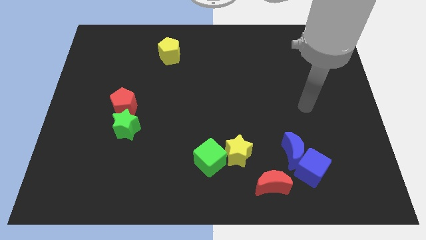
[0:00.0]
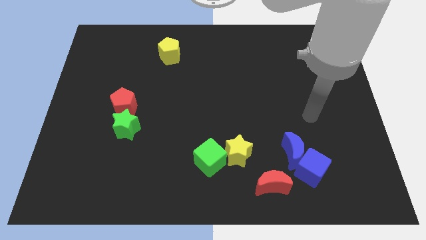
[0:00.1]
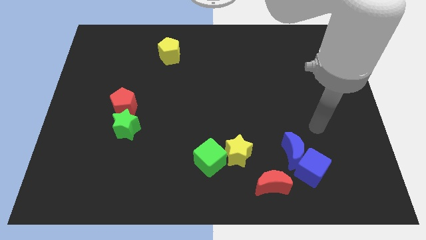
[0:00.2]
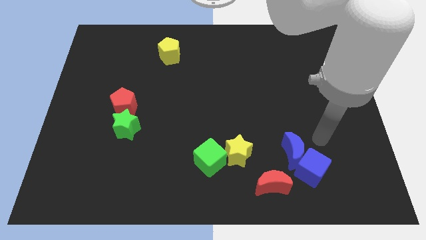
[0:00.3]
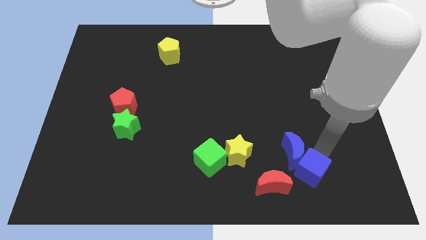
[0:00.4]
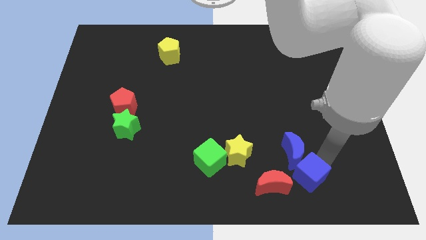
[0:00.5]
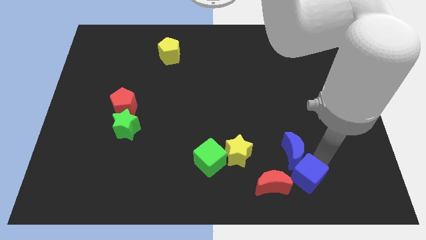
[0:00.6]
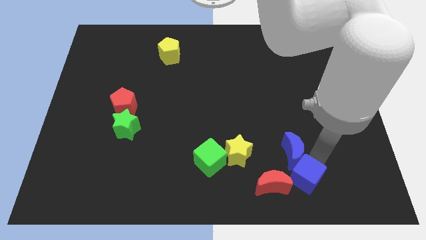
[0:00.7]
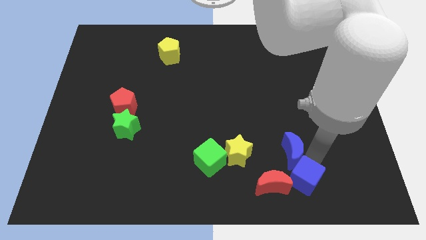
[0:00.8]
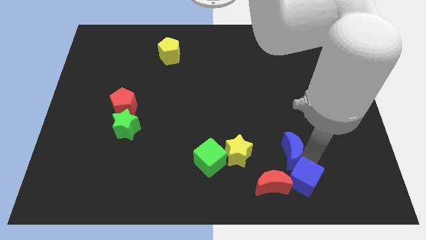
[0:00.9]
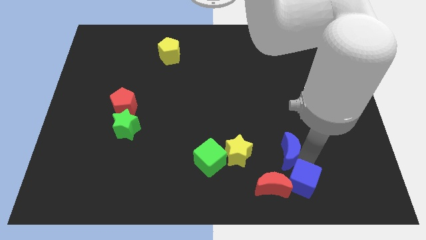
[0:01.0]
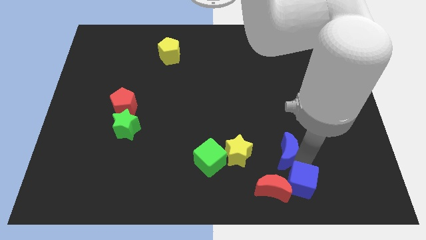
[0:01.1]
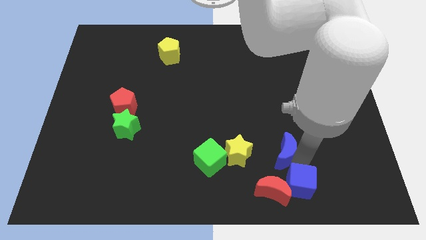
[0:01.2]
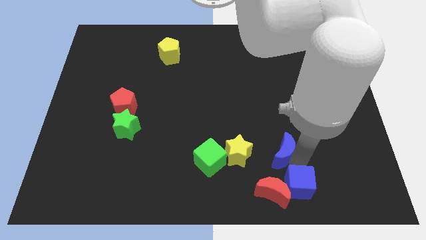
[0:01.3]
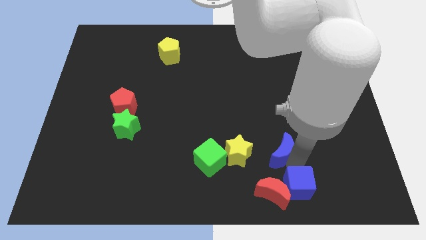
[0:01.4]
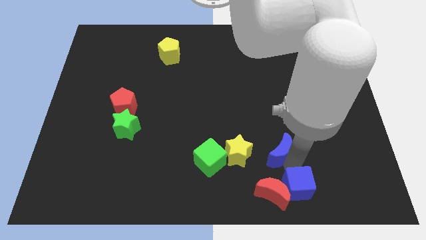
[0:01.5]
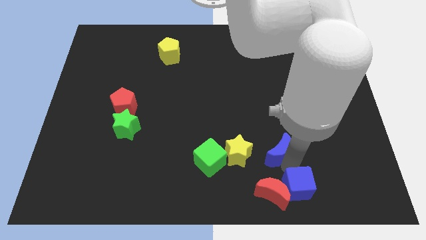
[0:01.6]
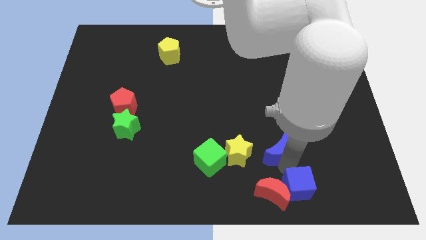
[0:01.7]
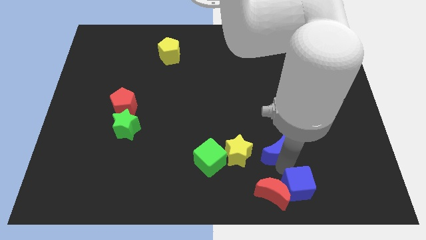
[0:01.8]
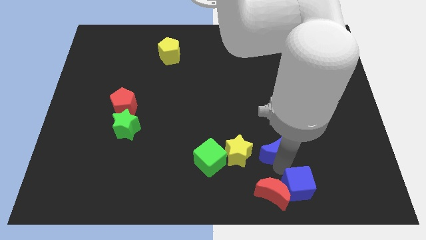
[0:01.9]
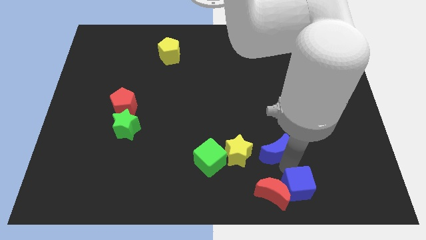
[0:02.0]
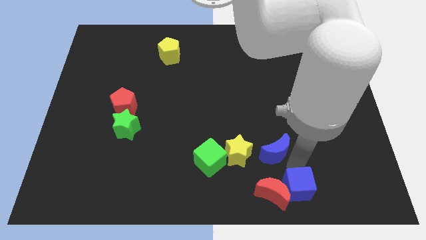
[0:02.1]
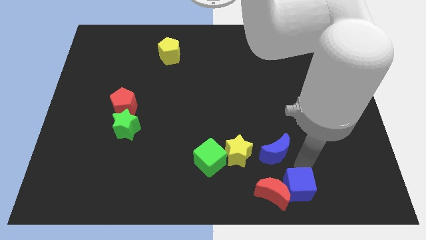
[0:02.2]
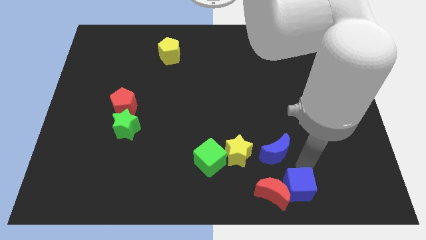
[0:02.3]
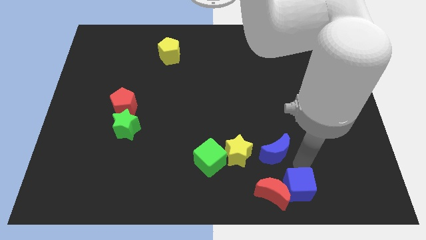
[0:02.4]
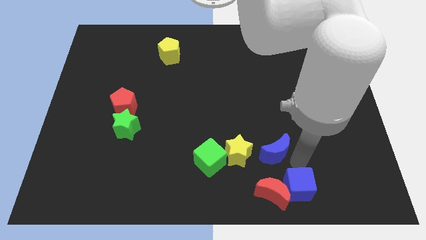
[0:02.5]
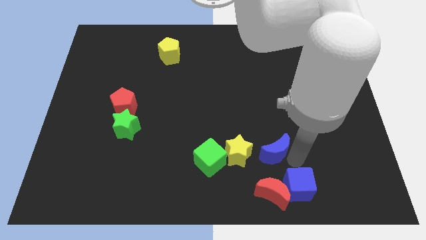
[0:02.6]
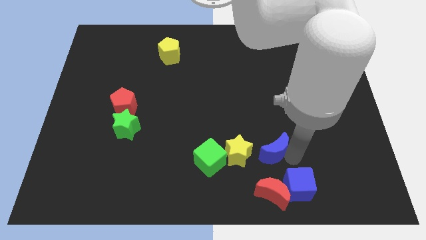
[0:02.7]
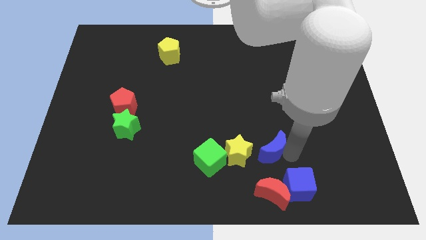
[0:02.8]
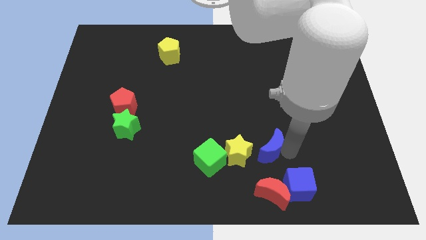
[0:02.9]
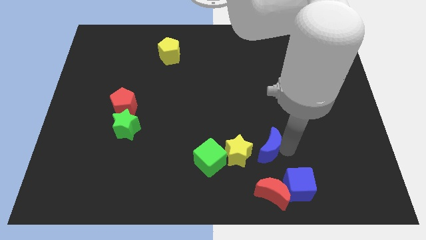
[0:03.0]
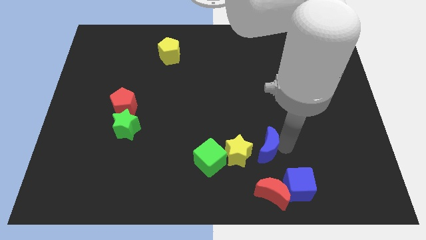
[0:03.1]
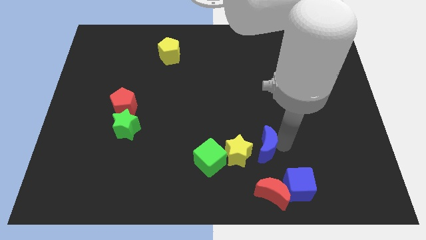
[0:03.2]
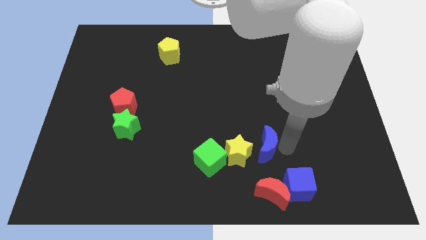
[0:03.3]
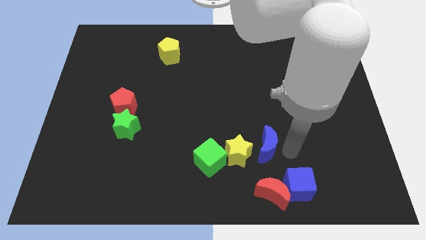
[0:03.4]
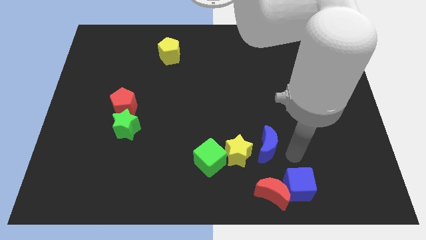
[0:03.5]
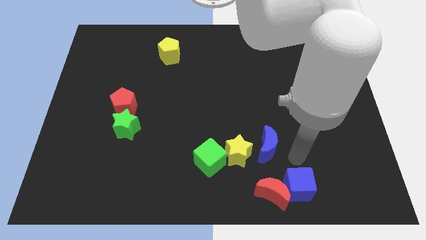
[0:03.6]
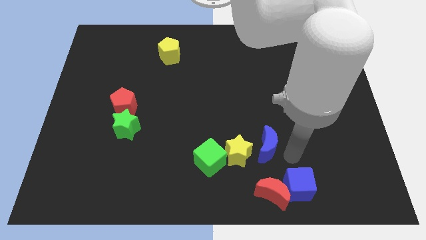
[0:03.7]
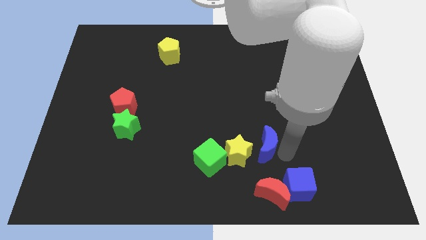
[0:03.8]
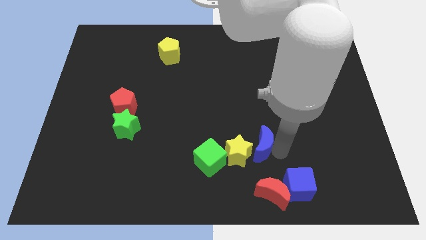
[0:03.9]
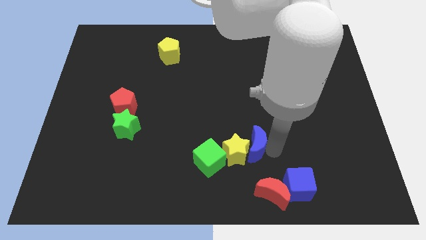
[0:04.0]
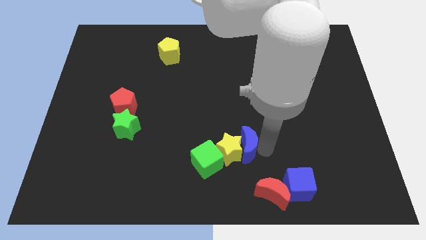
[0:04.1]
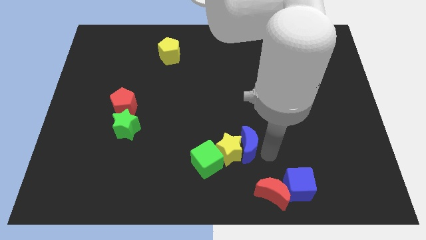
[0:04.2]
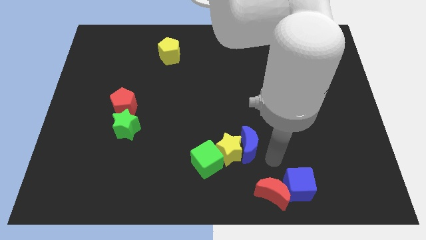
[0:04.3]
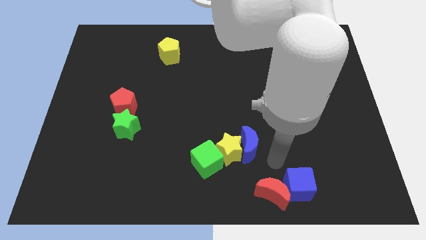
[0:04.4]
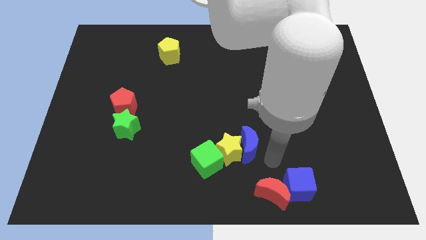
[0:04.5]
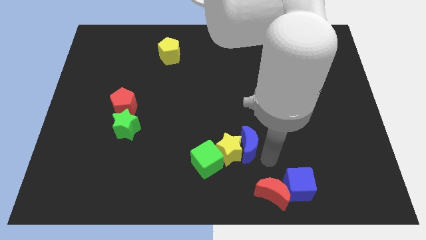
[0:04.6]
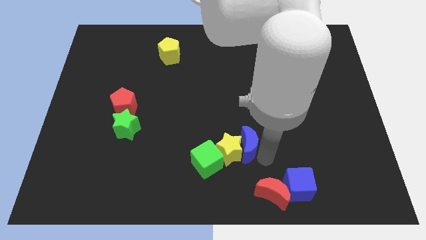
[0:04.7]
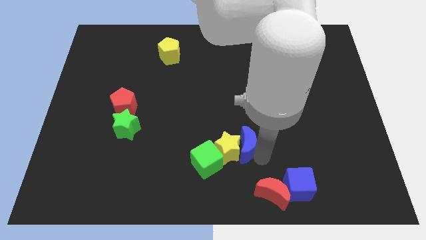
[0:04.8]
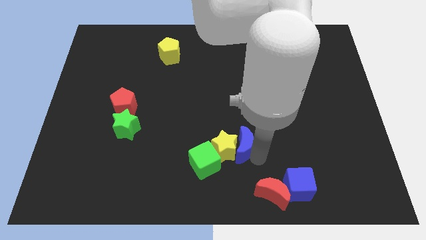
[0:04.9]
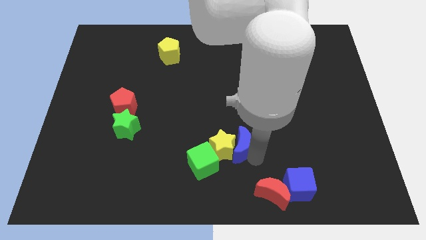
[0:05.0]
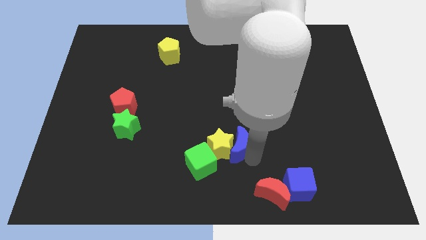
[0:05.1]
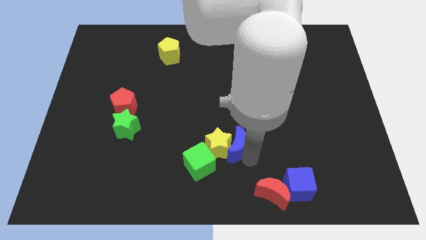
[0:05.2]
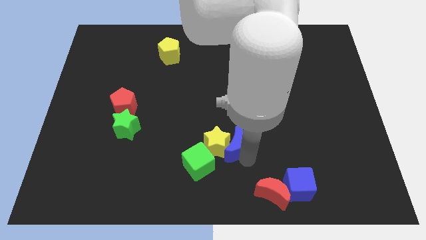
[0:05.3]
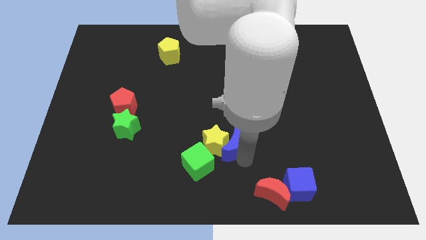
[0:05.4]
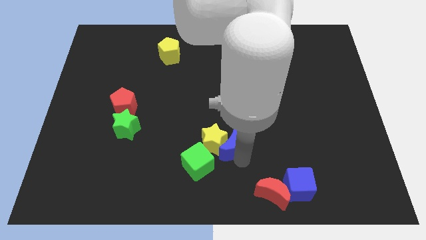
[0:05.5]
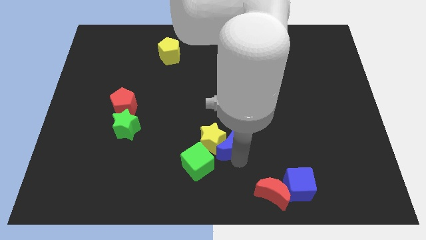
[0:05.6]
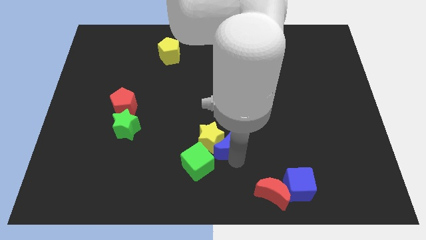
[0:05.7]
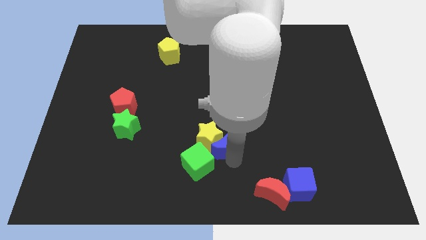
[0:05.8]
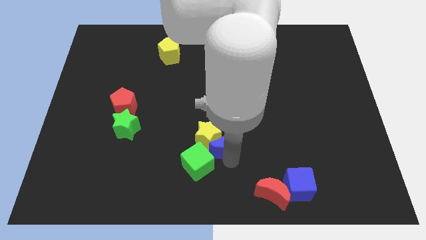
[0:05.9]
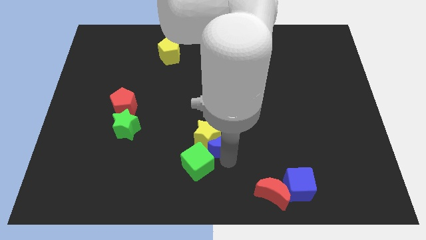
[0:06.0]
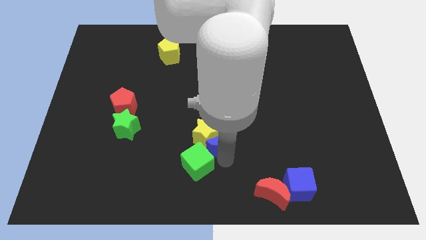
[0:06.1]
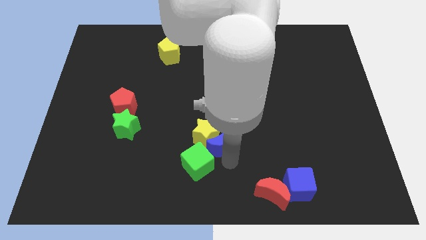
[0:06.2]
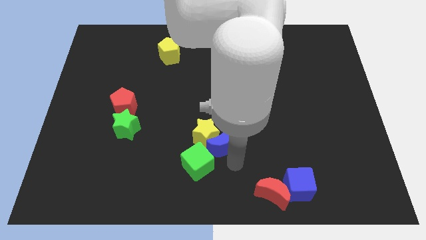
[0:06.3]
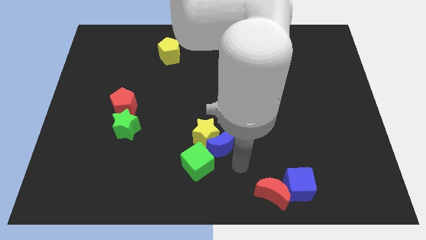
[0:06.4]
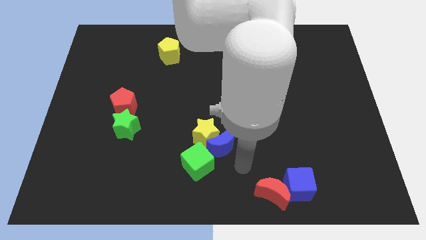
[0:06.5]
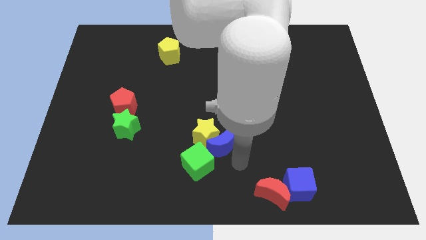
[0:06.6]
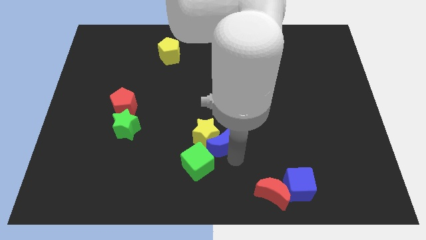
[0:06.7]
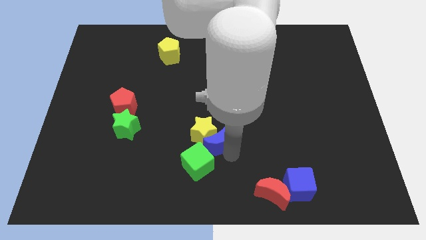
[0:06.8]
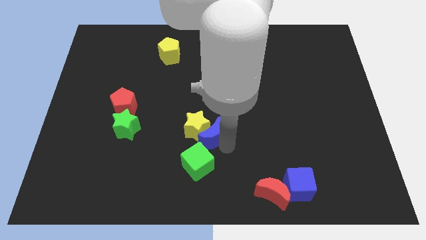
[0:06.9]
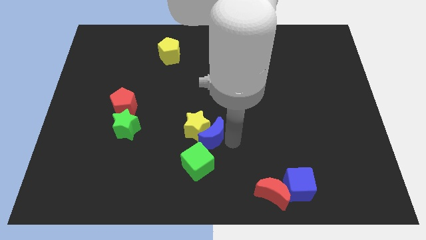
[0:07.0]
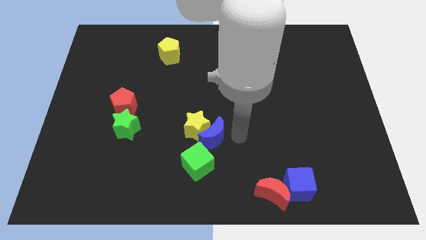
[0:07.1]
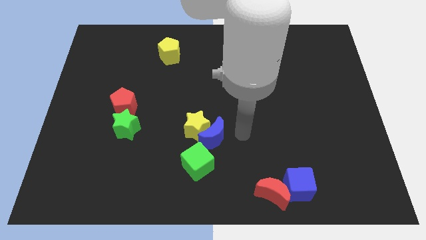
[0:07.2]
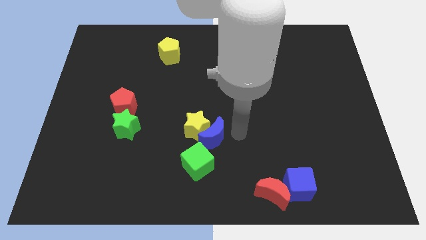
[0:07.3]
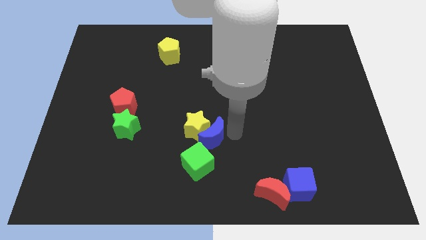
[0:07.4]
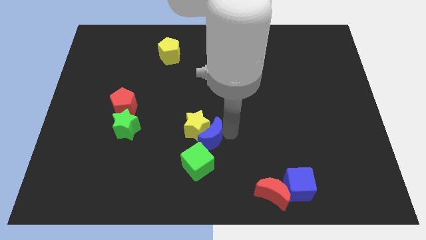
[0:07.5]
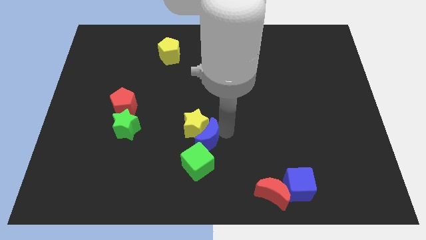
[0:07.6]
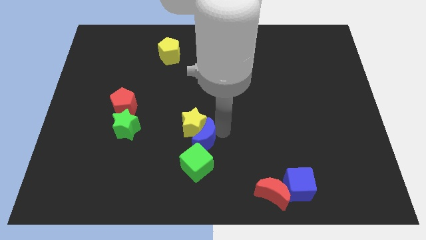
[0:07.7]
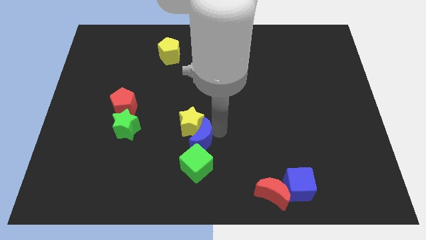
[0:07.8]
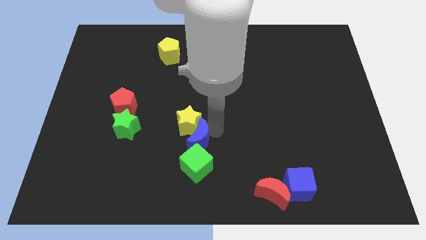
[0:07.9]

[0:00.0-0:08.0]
put the blue moon diagonally up and to the left of the green cube
